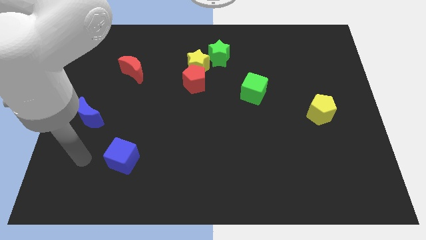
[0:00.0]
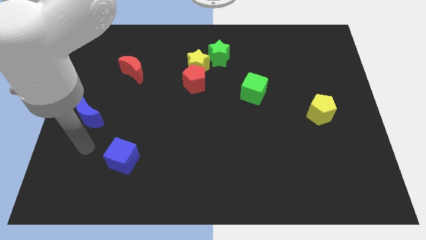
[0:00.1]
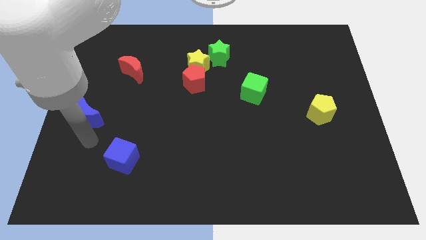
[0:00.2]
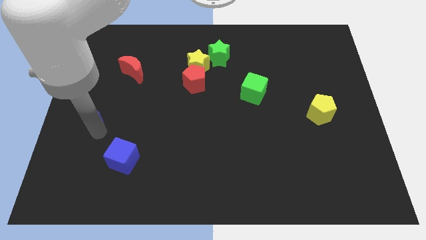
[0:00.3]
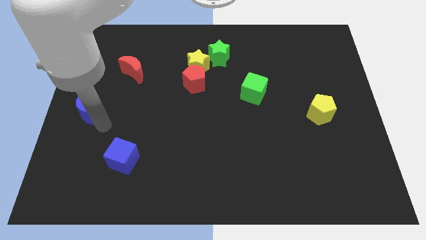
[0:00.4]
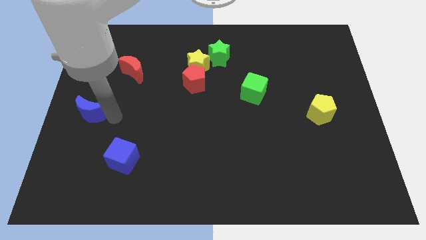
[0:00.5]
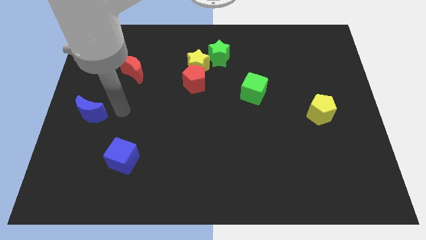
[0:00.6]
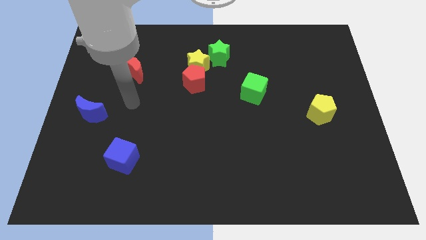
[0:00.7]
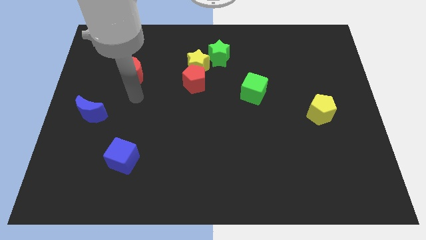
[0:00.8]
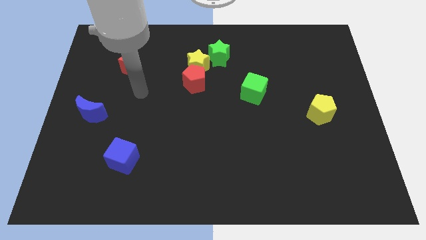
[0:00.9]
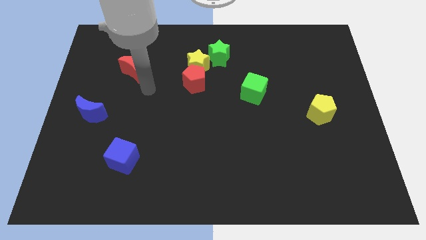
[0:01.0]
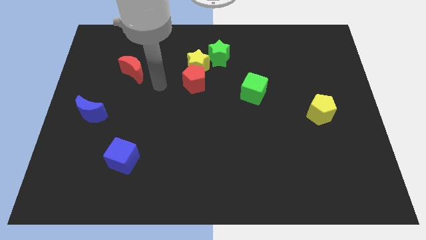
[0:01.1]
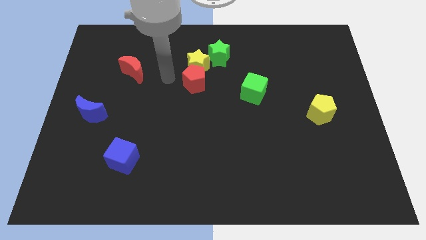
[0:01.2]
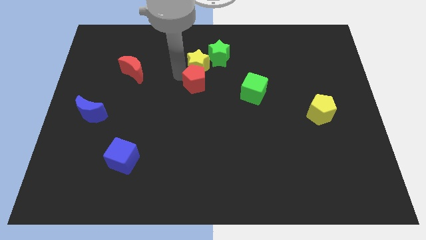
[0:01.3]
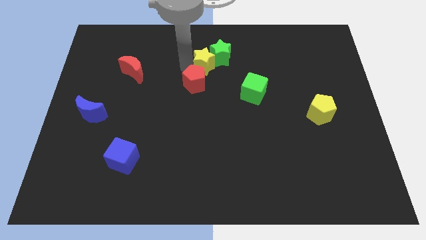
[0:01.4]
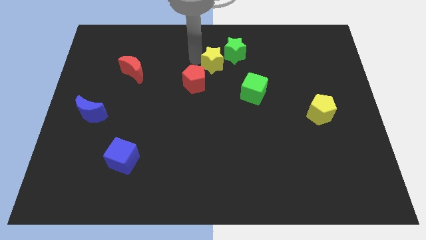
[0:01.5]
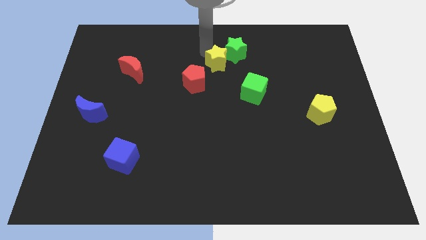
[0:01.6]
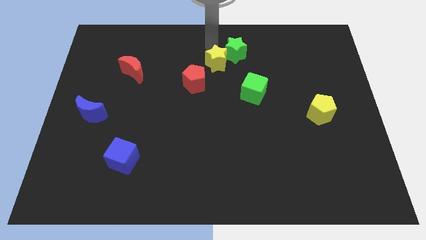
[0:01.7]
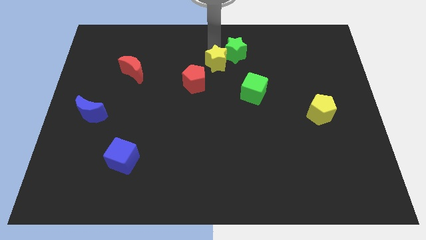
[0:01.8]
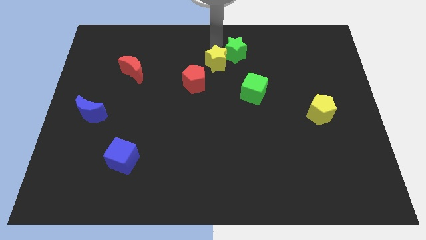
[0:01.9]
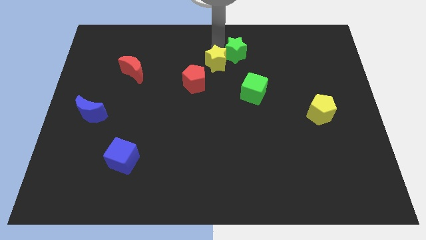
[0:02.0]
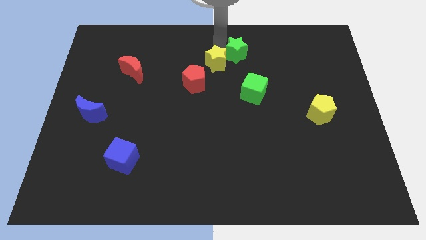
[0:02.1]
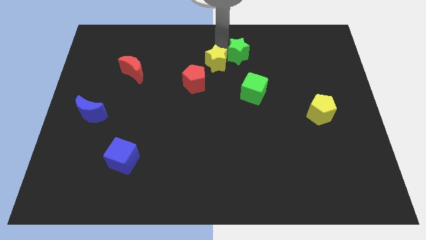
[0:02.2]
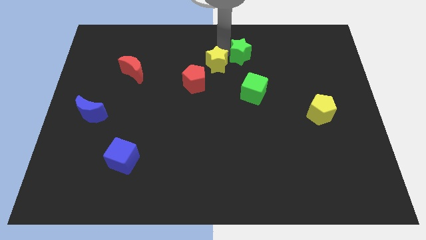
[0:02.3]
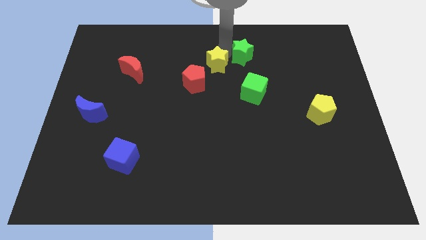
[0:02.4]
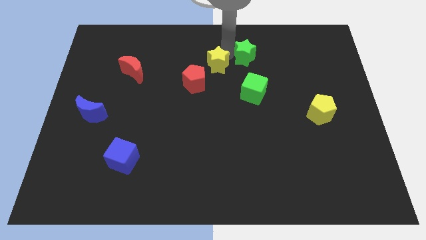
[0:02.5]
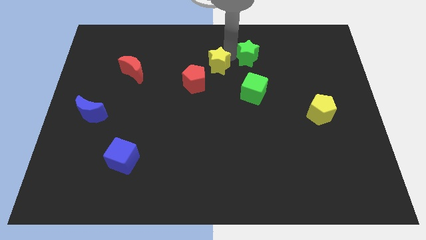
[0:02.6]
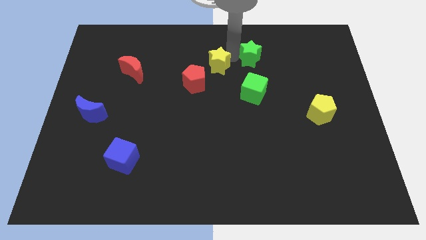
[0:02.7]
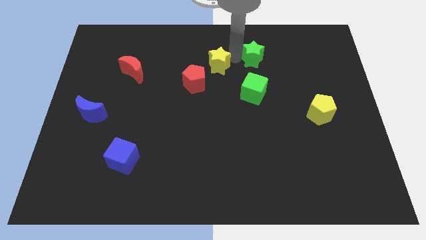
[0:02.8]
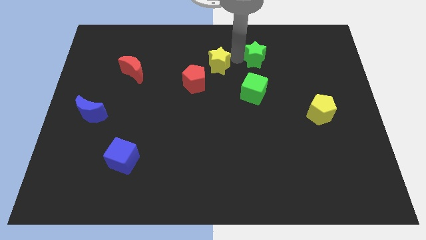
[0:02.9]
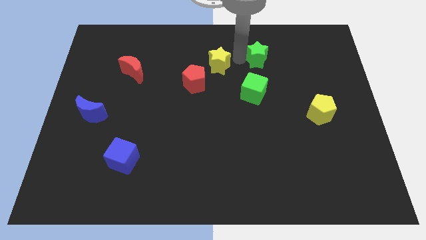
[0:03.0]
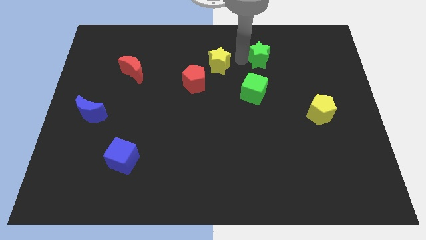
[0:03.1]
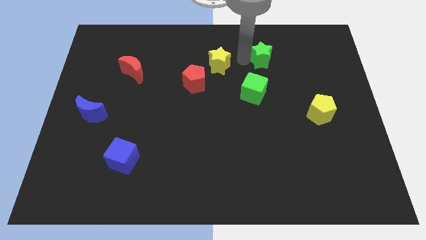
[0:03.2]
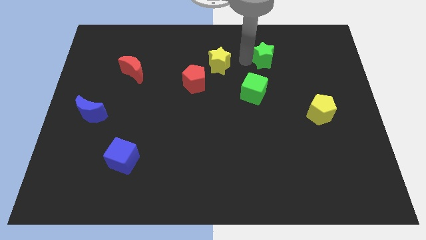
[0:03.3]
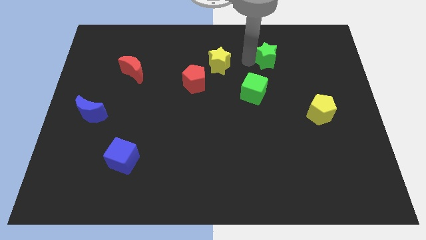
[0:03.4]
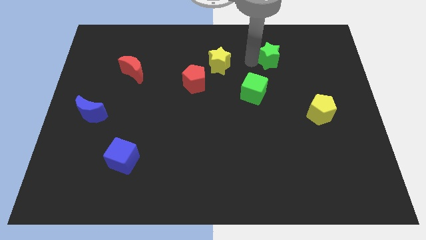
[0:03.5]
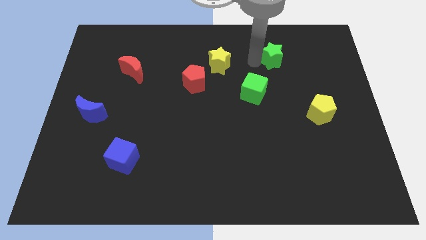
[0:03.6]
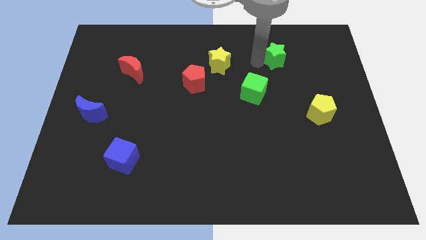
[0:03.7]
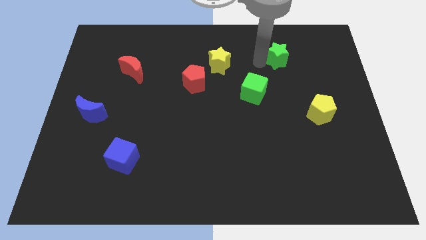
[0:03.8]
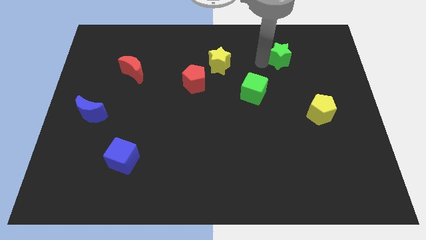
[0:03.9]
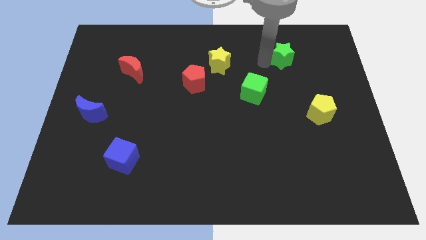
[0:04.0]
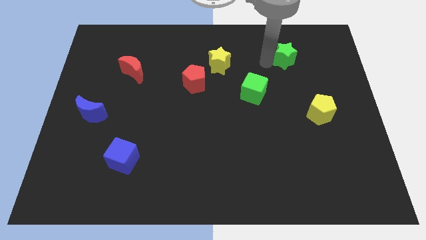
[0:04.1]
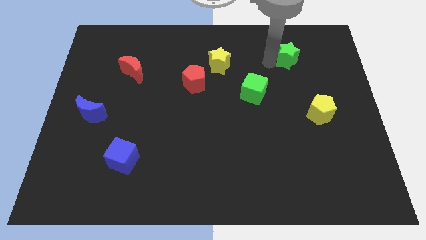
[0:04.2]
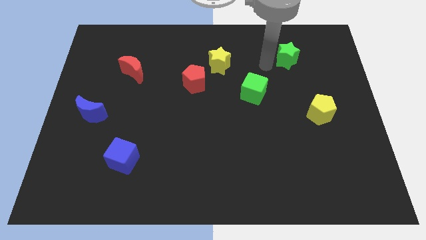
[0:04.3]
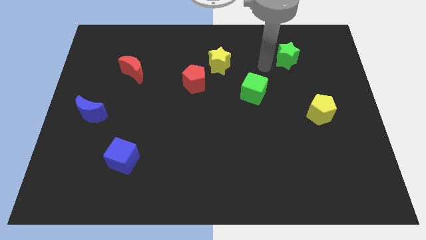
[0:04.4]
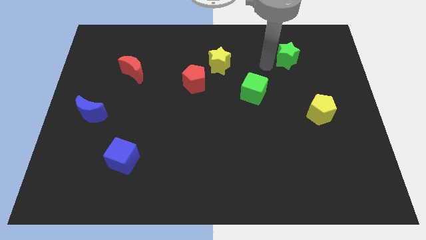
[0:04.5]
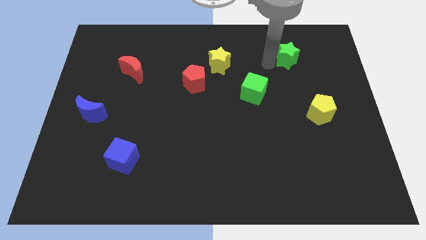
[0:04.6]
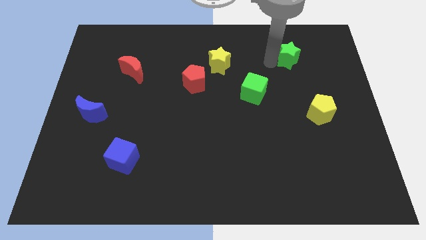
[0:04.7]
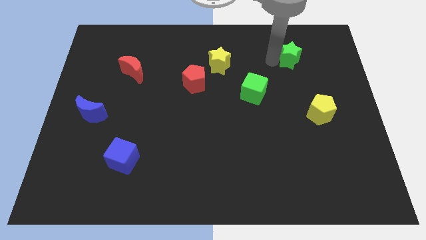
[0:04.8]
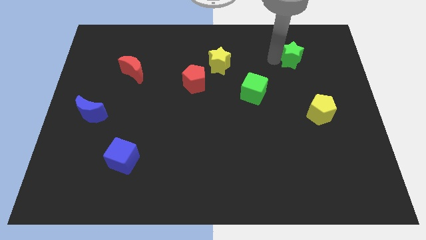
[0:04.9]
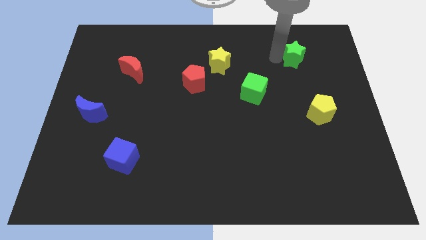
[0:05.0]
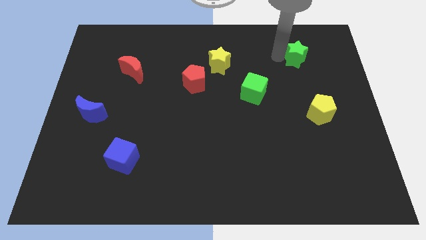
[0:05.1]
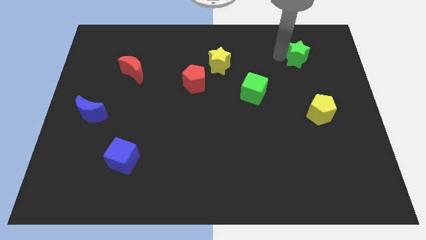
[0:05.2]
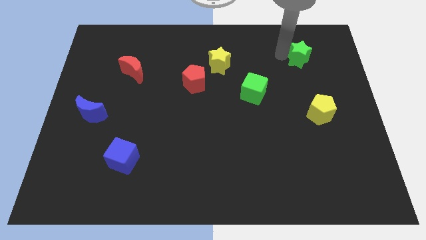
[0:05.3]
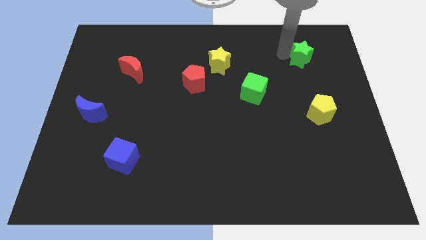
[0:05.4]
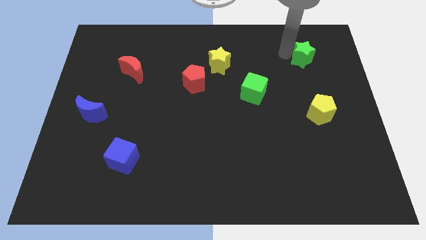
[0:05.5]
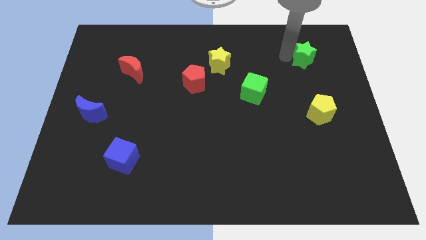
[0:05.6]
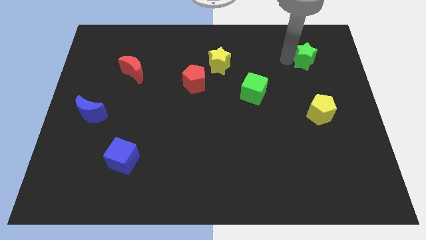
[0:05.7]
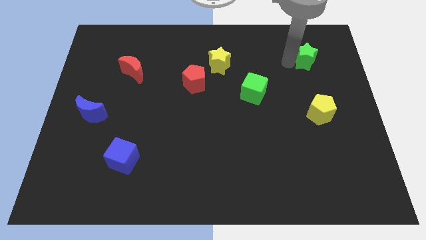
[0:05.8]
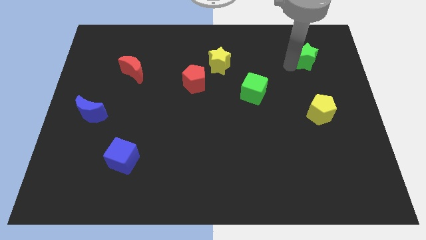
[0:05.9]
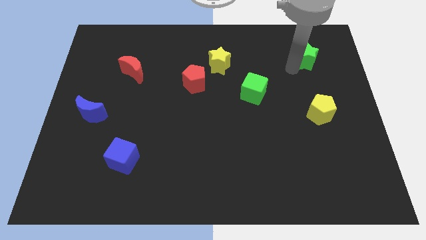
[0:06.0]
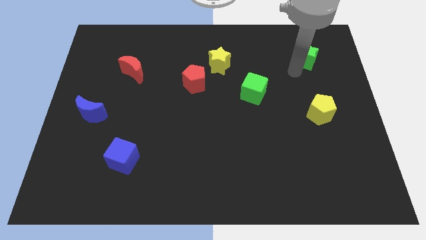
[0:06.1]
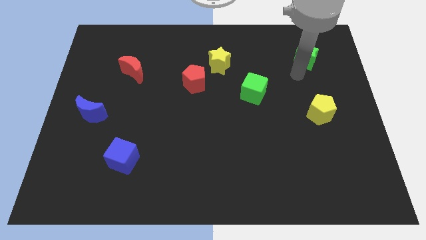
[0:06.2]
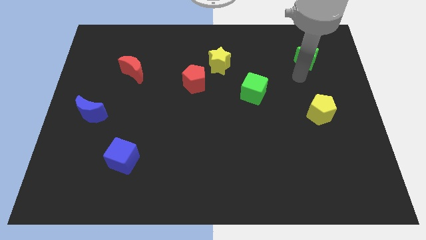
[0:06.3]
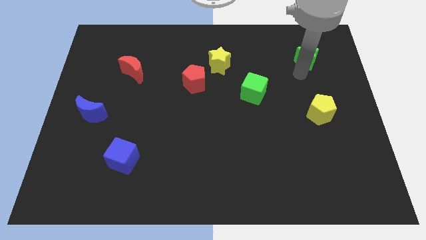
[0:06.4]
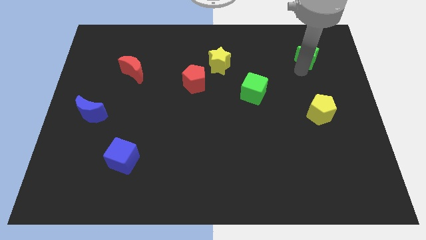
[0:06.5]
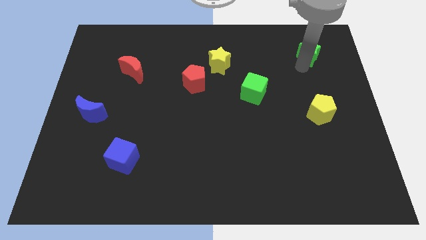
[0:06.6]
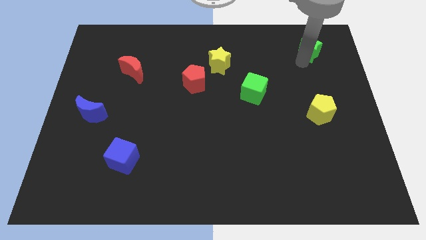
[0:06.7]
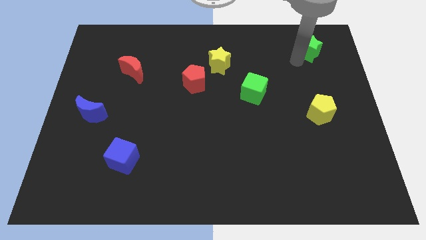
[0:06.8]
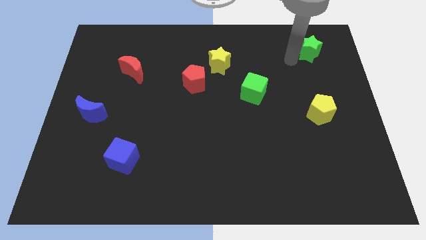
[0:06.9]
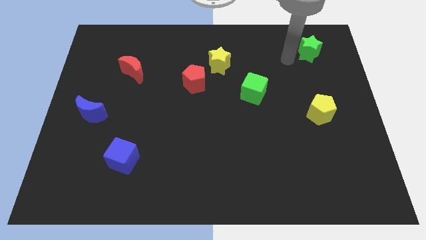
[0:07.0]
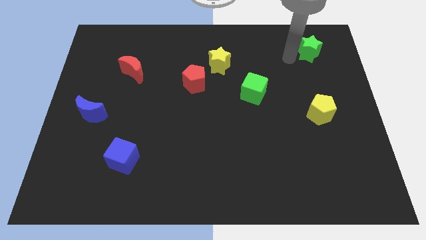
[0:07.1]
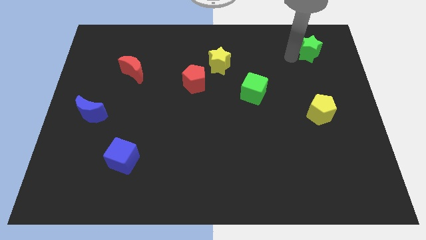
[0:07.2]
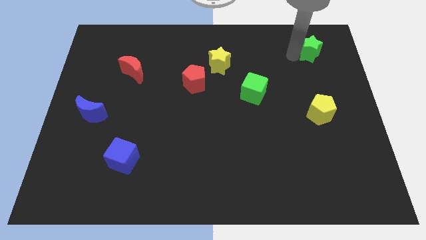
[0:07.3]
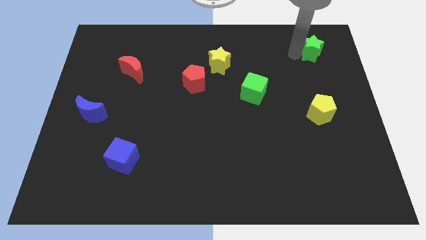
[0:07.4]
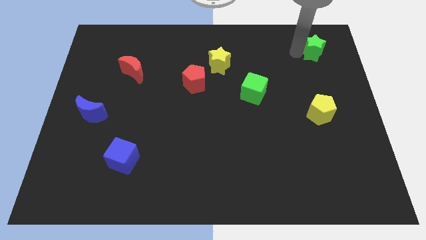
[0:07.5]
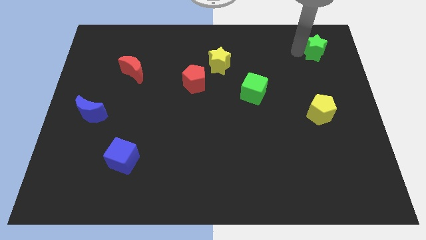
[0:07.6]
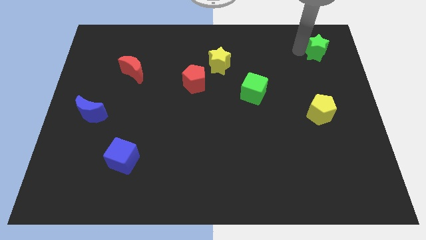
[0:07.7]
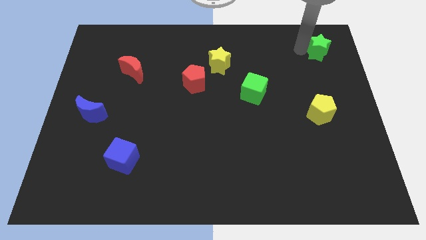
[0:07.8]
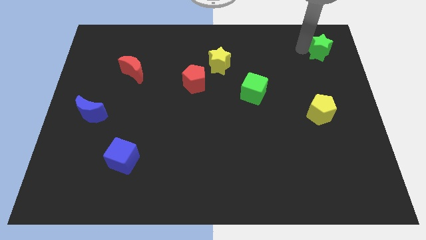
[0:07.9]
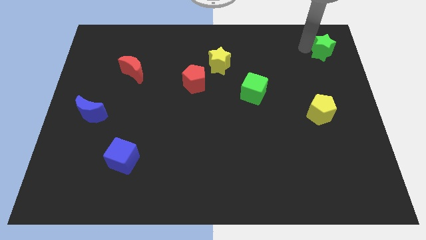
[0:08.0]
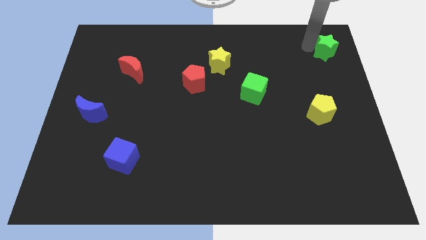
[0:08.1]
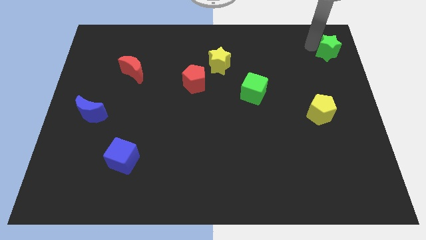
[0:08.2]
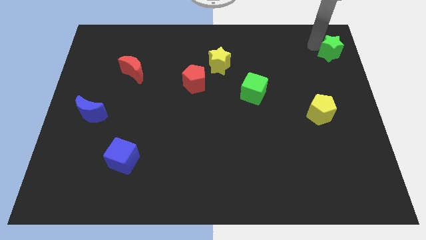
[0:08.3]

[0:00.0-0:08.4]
move the green star to the upper right corner
